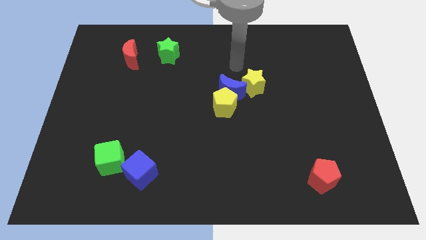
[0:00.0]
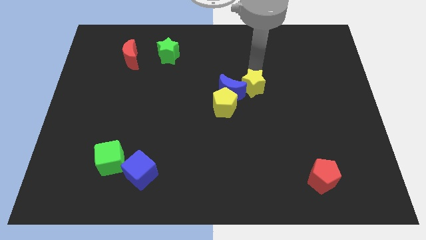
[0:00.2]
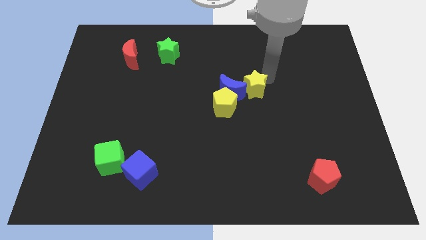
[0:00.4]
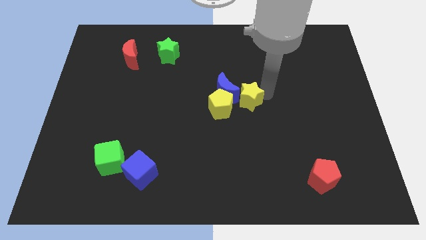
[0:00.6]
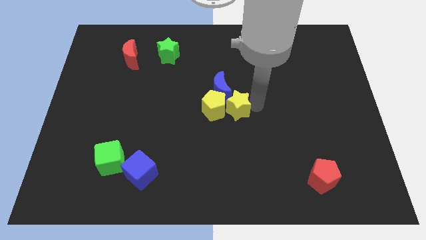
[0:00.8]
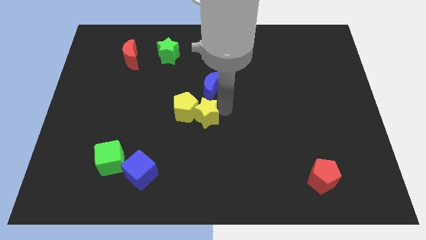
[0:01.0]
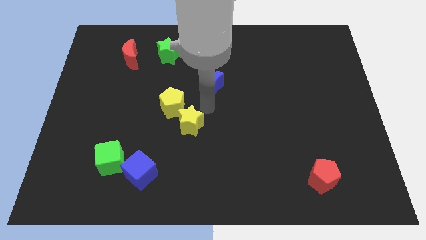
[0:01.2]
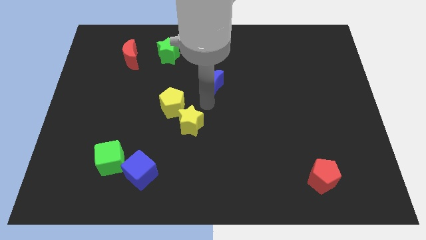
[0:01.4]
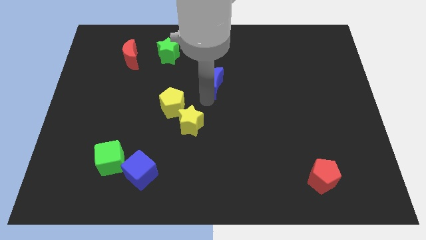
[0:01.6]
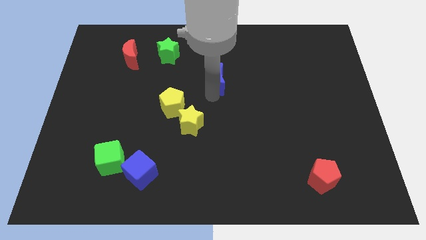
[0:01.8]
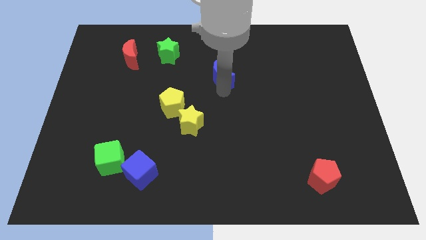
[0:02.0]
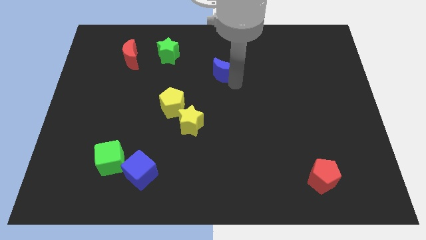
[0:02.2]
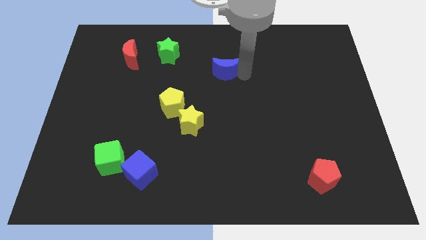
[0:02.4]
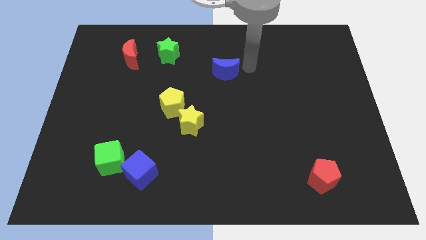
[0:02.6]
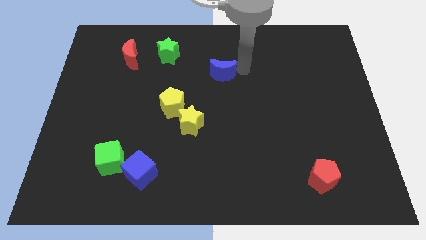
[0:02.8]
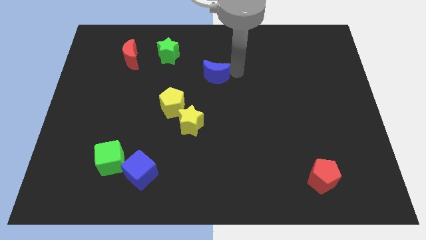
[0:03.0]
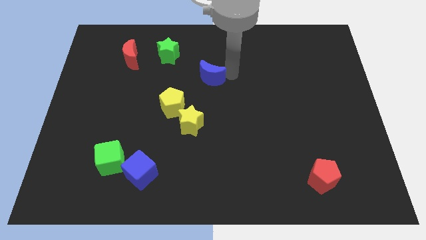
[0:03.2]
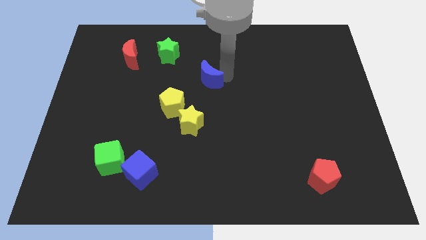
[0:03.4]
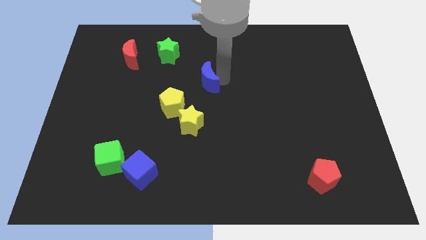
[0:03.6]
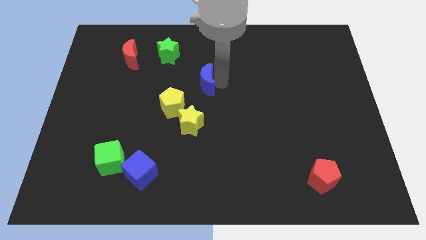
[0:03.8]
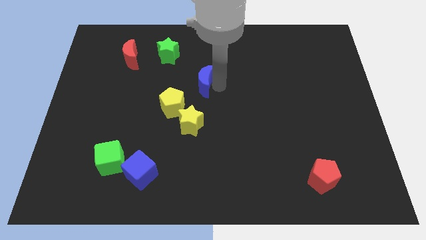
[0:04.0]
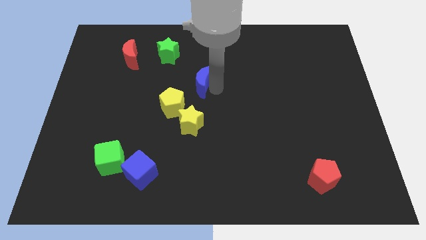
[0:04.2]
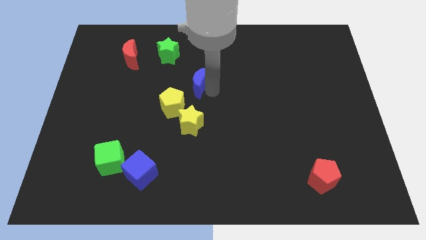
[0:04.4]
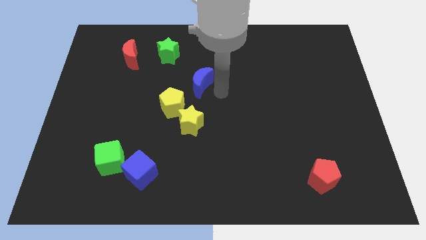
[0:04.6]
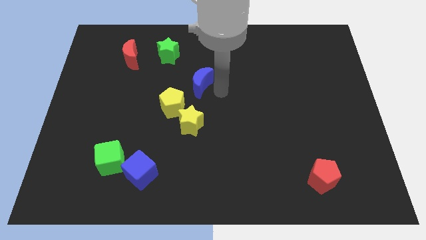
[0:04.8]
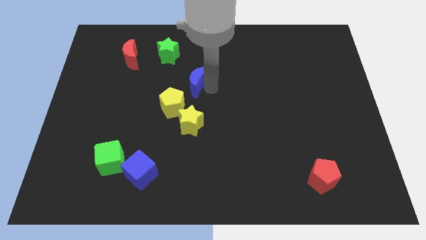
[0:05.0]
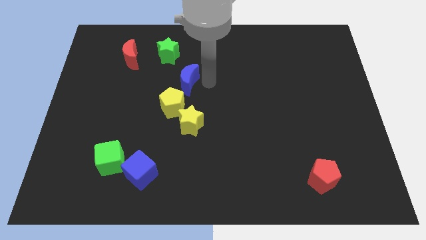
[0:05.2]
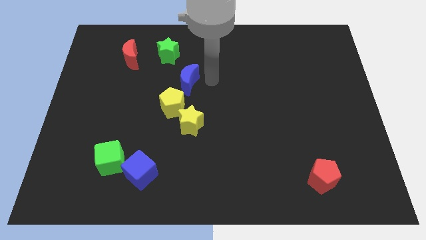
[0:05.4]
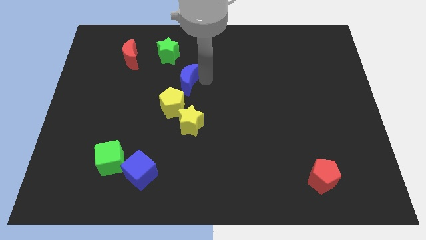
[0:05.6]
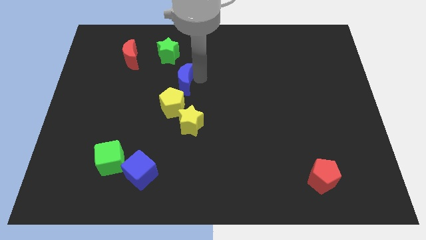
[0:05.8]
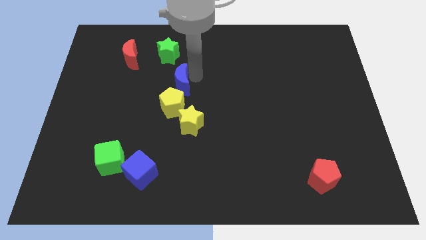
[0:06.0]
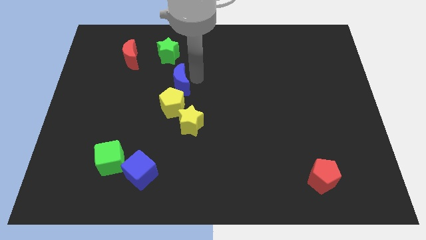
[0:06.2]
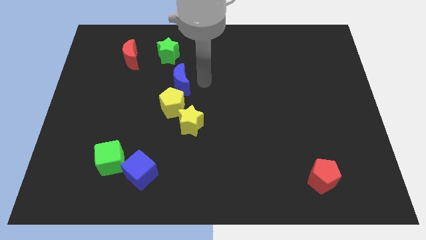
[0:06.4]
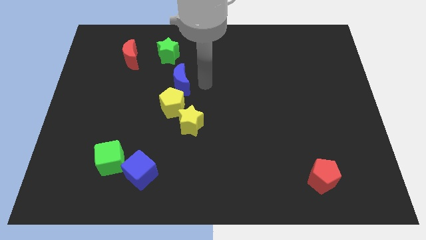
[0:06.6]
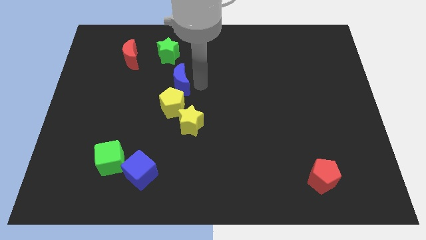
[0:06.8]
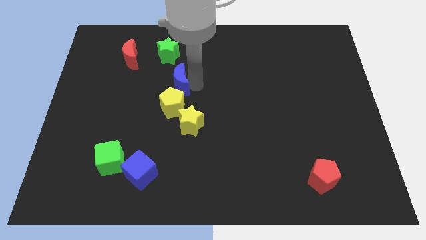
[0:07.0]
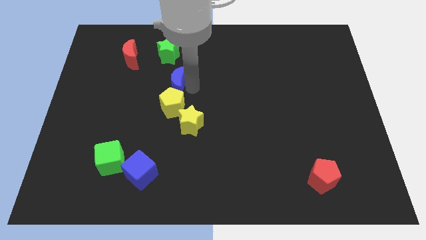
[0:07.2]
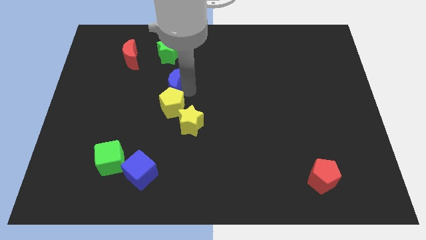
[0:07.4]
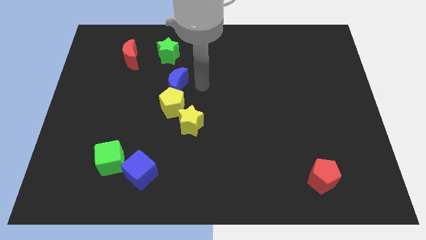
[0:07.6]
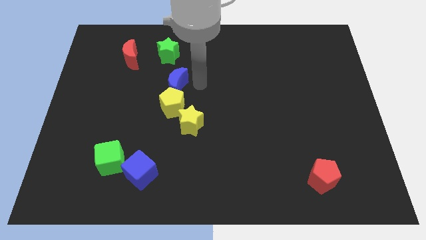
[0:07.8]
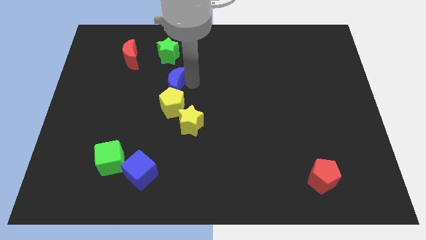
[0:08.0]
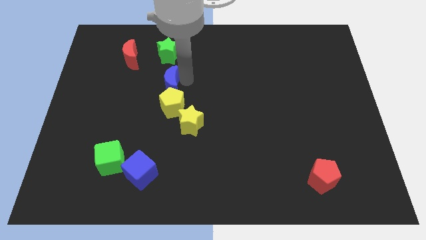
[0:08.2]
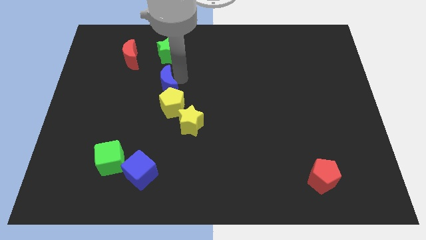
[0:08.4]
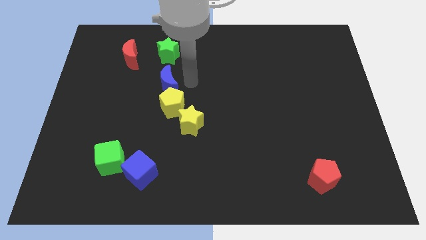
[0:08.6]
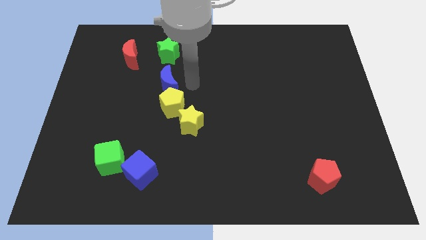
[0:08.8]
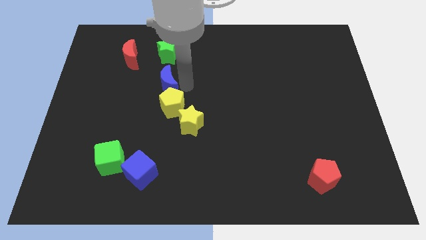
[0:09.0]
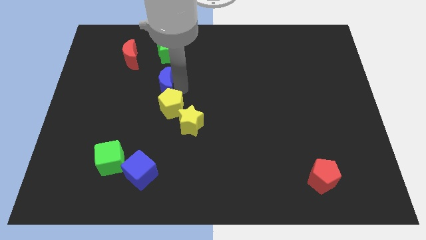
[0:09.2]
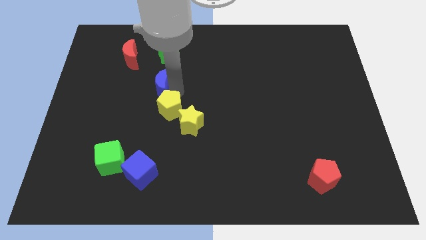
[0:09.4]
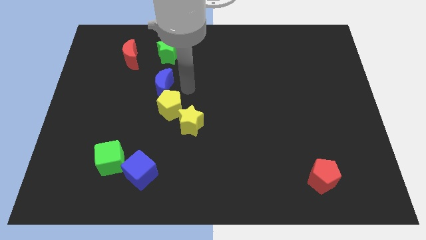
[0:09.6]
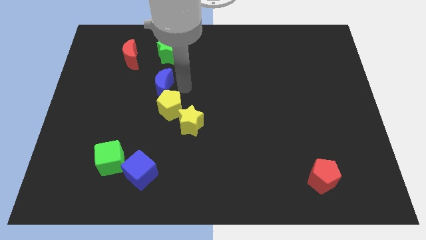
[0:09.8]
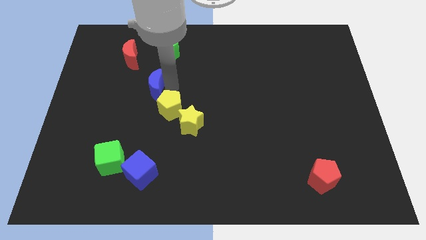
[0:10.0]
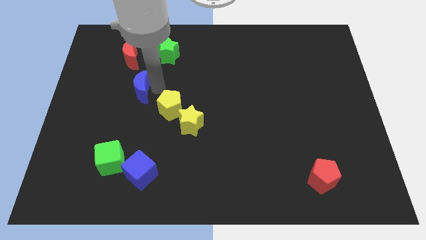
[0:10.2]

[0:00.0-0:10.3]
push the blue moon left

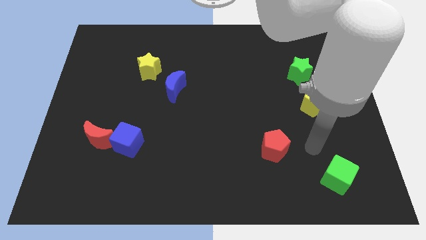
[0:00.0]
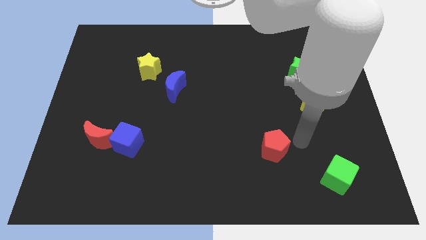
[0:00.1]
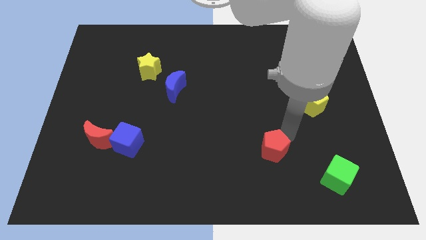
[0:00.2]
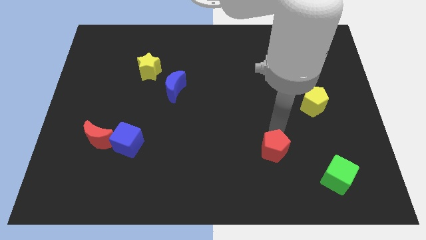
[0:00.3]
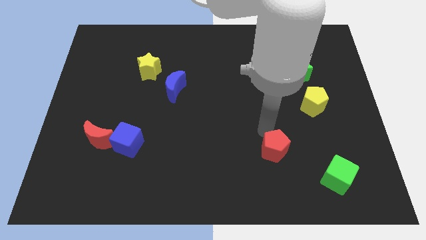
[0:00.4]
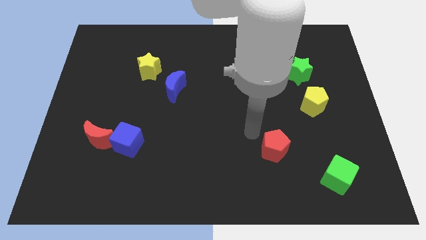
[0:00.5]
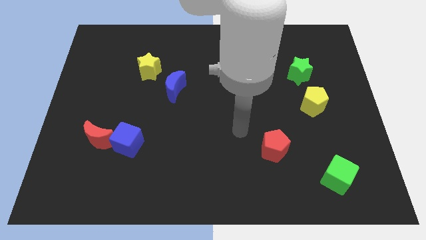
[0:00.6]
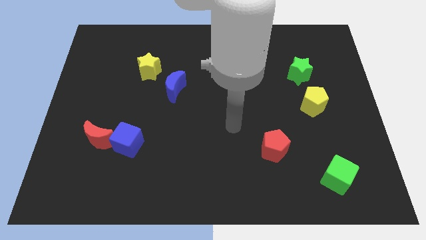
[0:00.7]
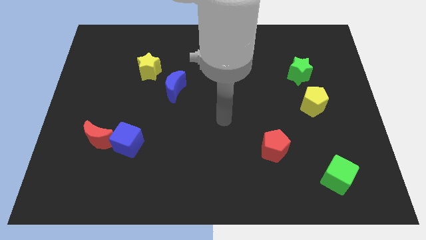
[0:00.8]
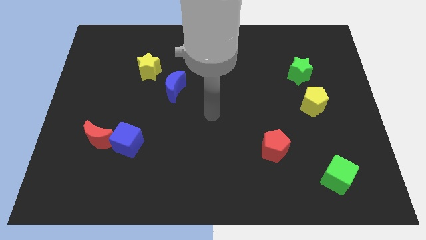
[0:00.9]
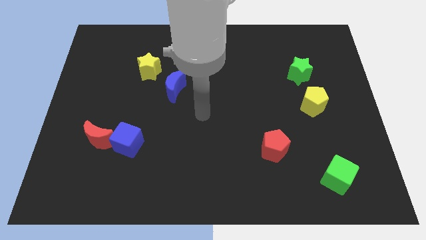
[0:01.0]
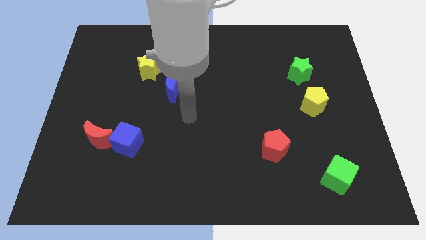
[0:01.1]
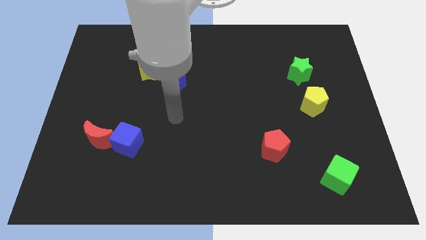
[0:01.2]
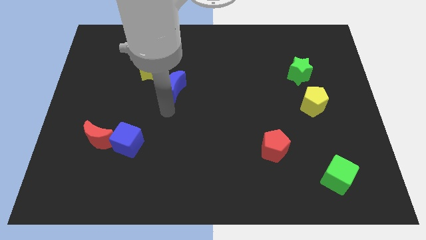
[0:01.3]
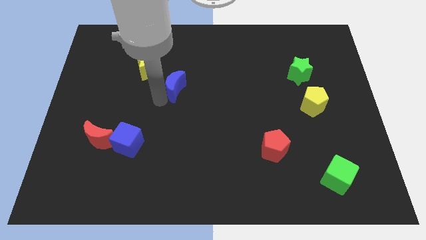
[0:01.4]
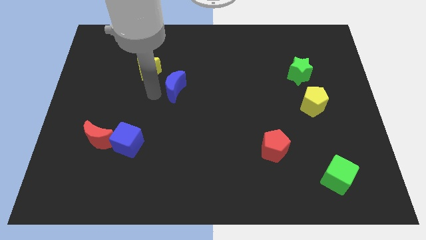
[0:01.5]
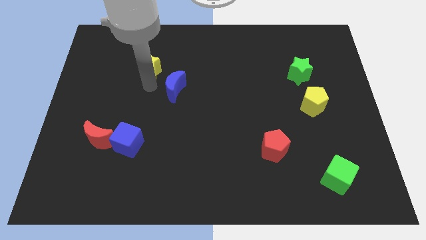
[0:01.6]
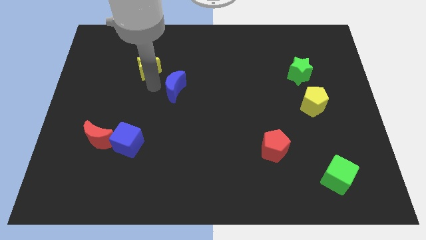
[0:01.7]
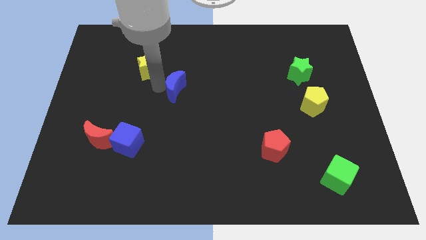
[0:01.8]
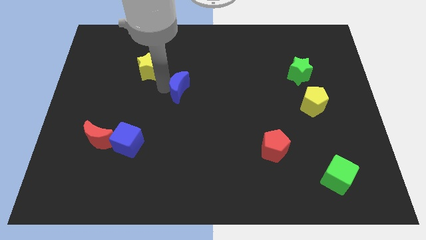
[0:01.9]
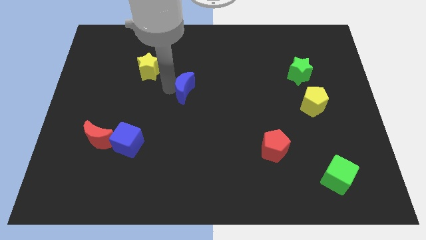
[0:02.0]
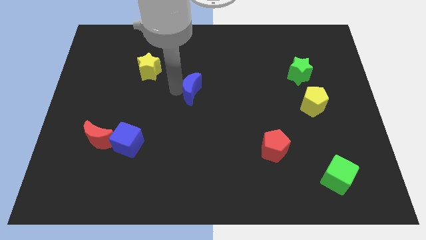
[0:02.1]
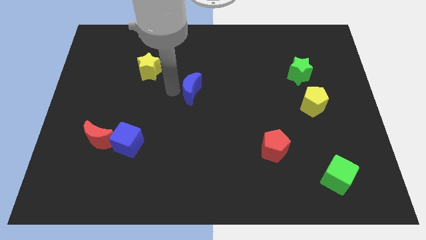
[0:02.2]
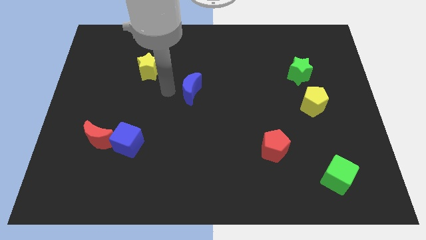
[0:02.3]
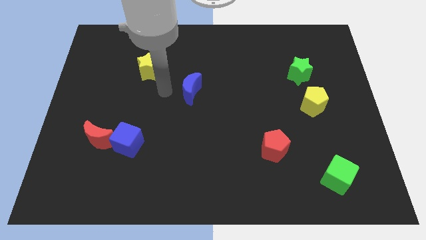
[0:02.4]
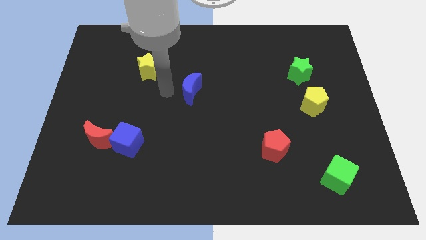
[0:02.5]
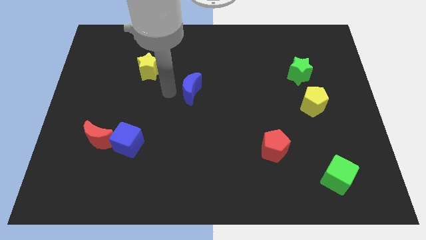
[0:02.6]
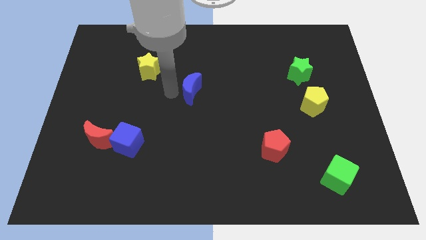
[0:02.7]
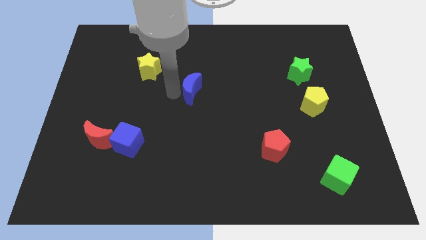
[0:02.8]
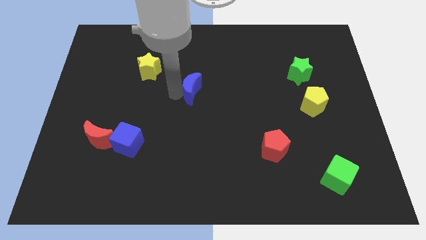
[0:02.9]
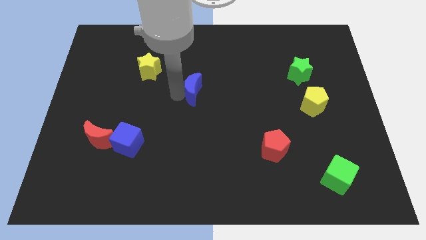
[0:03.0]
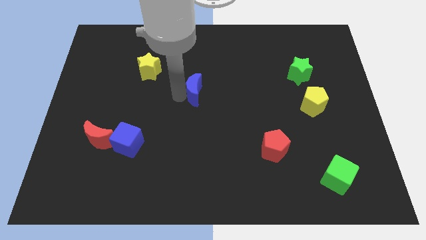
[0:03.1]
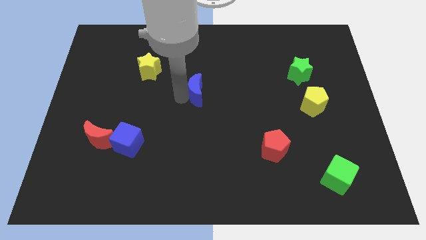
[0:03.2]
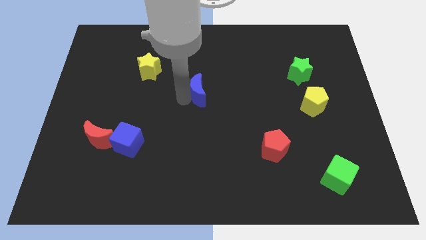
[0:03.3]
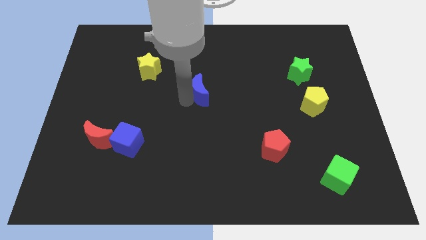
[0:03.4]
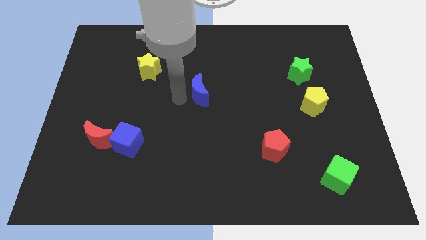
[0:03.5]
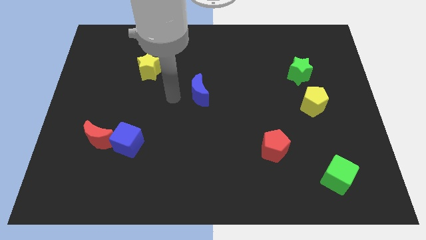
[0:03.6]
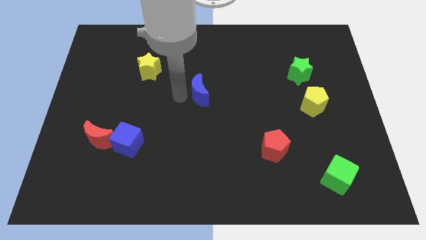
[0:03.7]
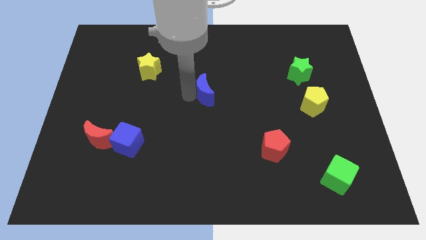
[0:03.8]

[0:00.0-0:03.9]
slightly push the blue moon right
